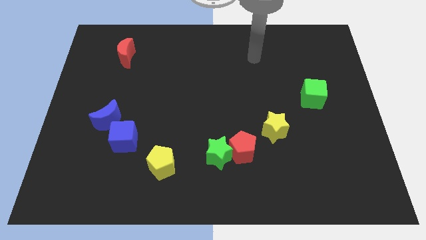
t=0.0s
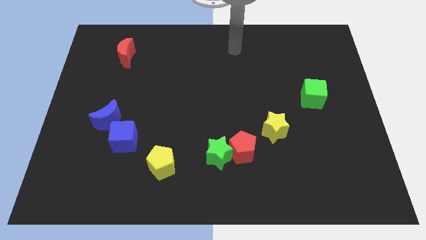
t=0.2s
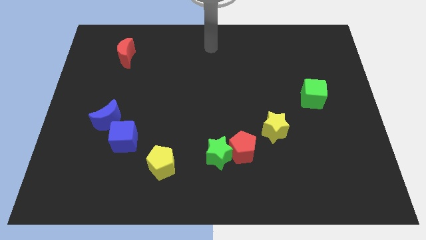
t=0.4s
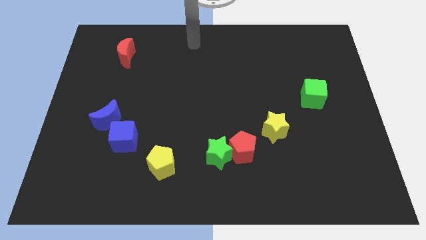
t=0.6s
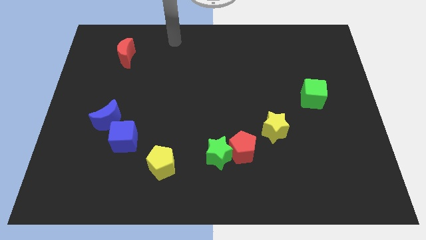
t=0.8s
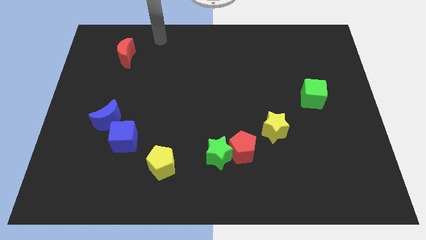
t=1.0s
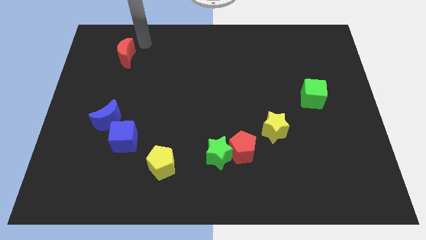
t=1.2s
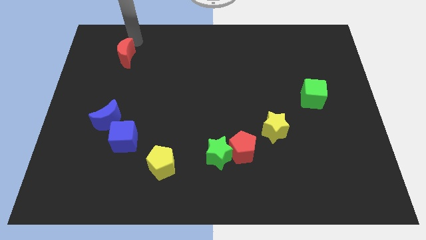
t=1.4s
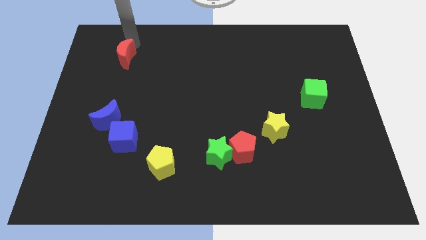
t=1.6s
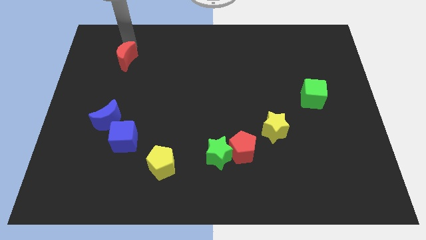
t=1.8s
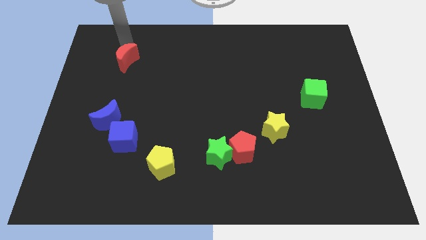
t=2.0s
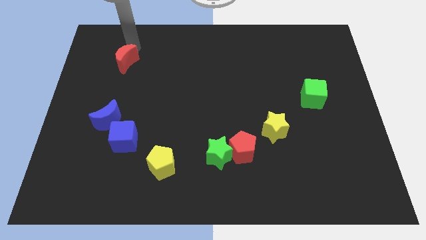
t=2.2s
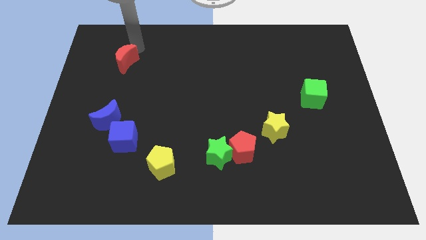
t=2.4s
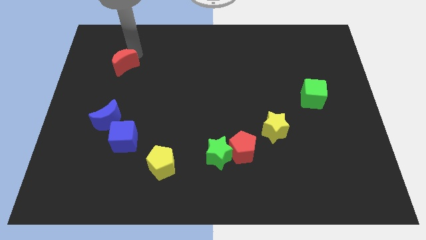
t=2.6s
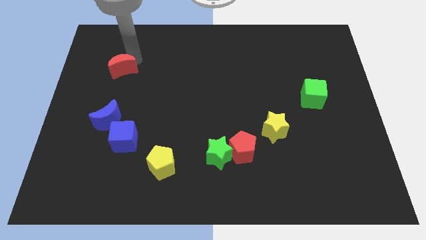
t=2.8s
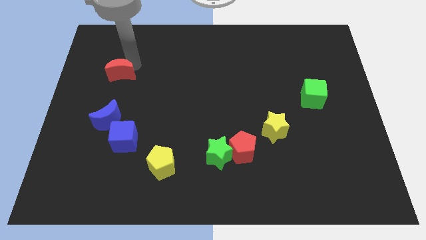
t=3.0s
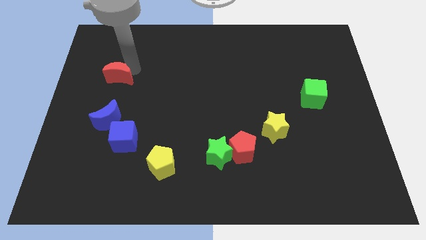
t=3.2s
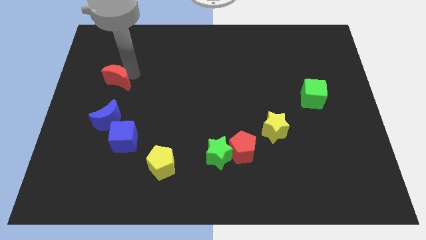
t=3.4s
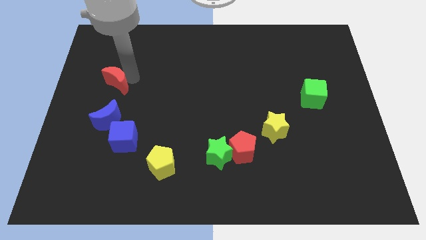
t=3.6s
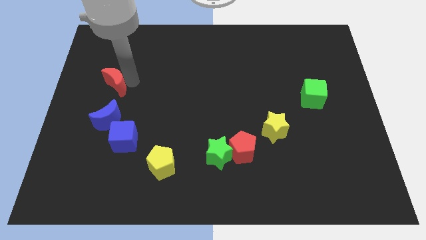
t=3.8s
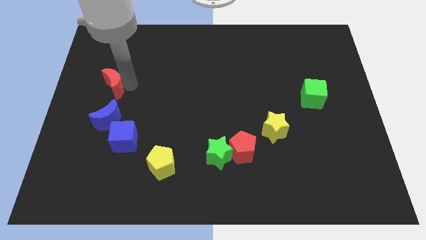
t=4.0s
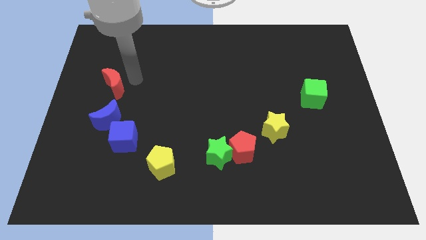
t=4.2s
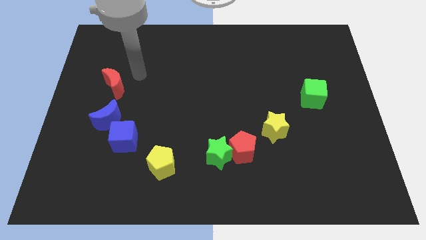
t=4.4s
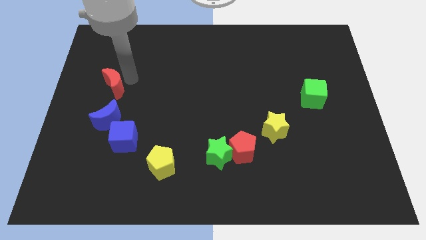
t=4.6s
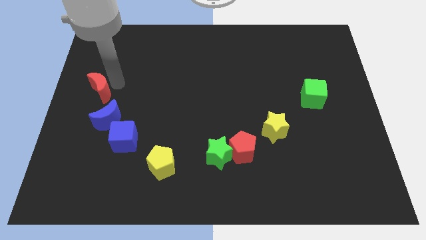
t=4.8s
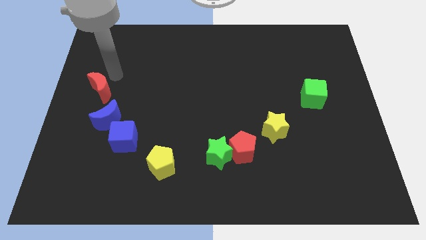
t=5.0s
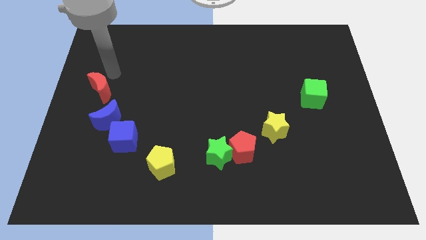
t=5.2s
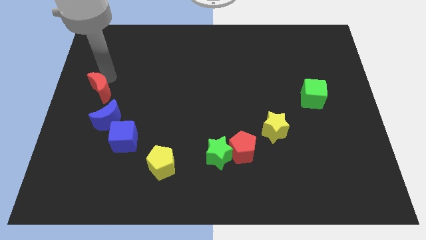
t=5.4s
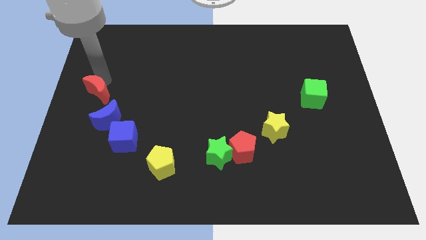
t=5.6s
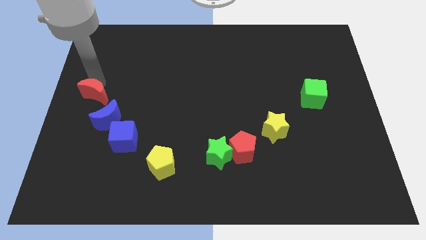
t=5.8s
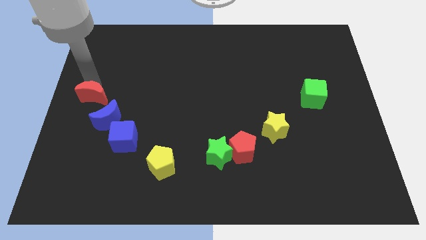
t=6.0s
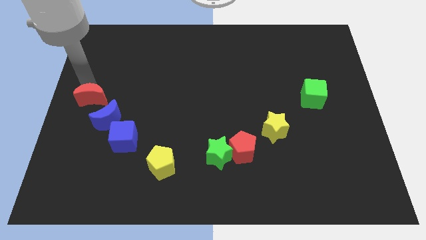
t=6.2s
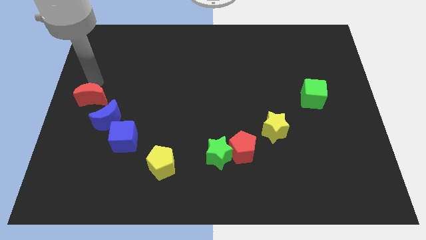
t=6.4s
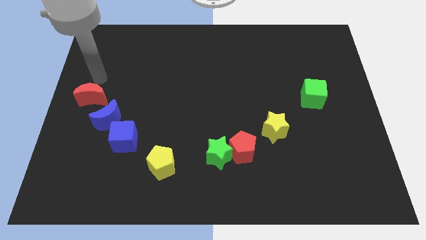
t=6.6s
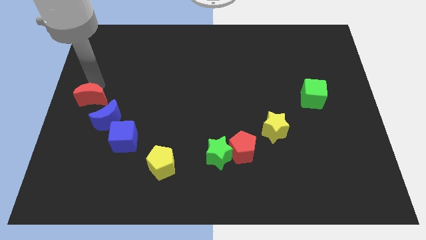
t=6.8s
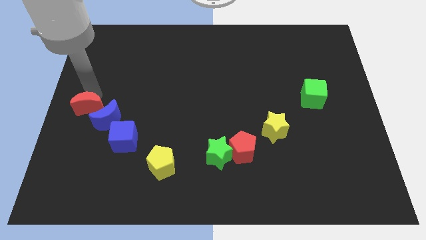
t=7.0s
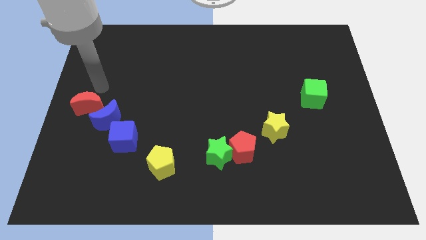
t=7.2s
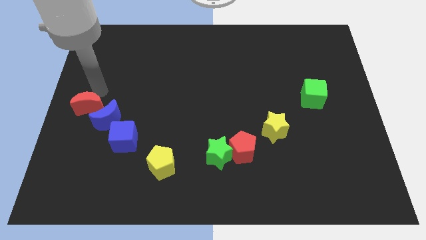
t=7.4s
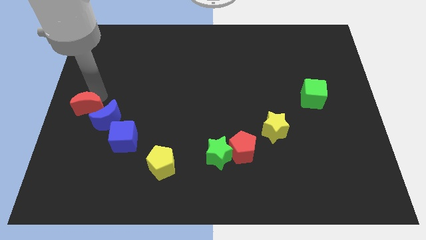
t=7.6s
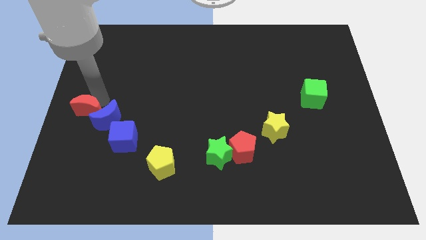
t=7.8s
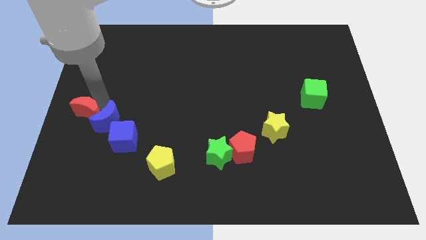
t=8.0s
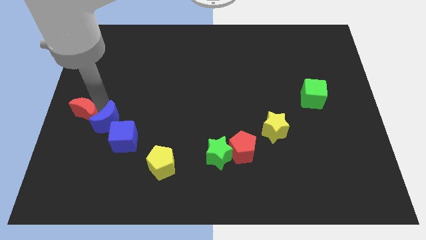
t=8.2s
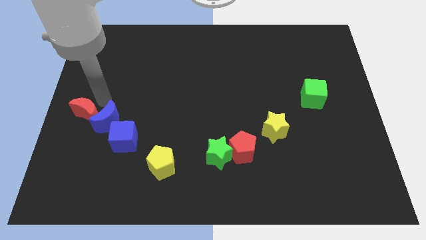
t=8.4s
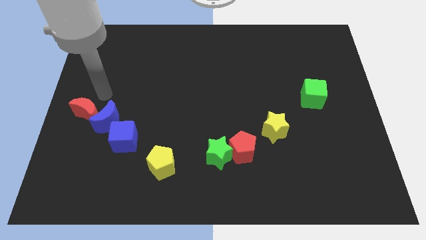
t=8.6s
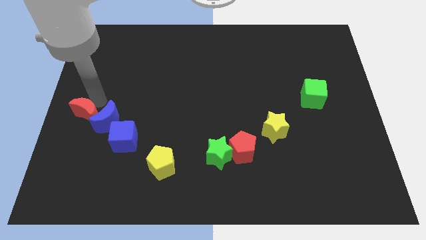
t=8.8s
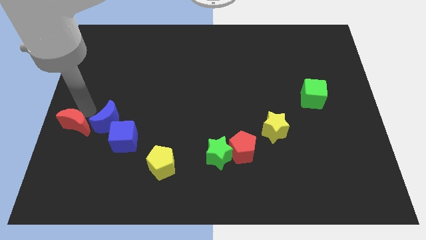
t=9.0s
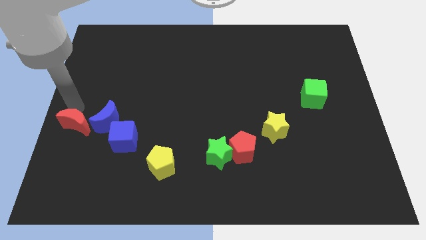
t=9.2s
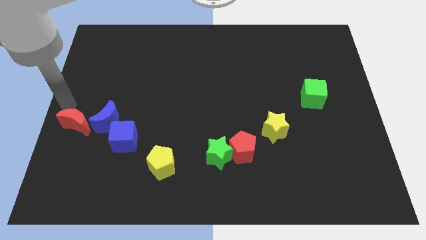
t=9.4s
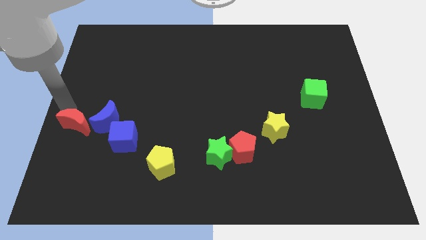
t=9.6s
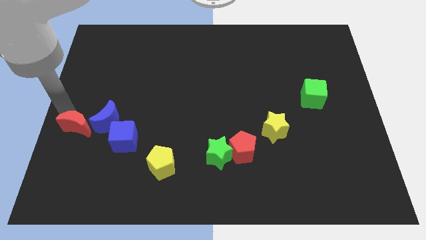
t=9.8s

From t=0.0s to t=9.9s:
push the red moon down

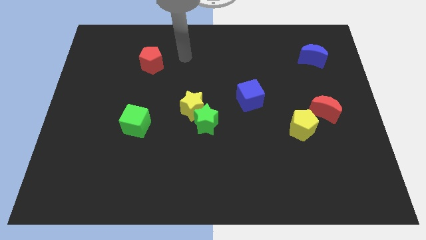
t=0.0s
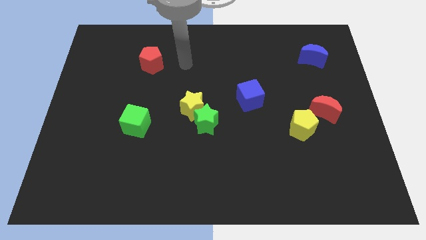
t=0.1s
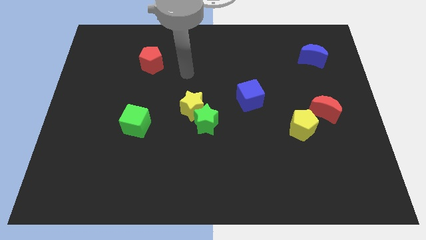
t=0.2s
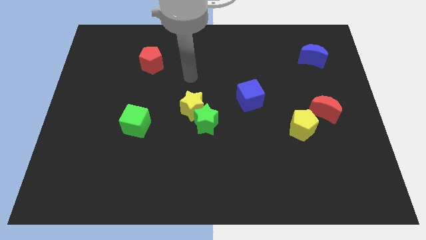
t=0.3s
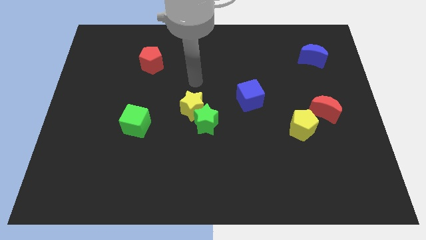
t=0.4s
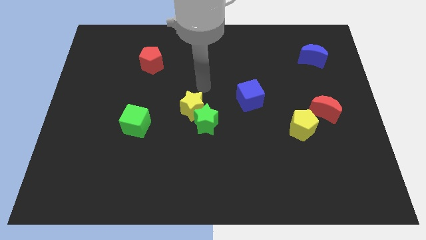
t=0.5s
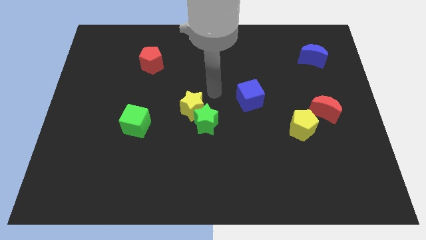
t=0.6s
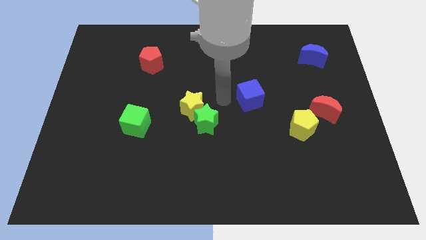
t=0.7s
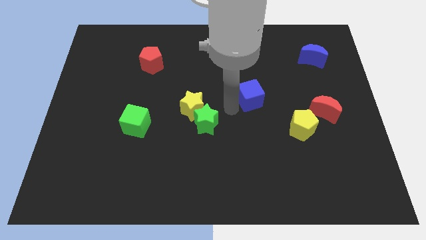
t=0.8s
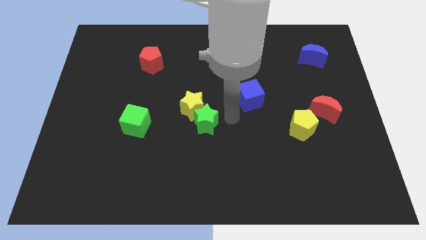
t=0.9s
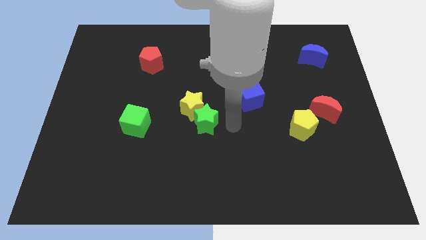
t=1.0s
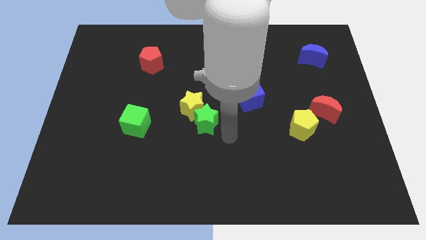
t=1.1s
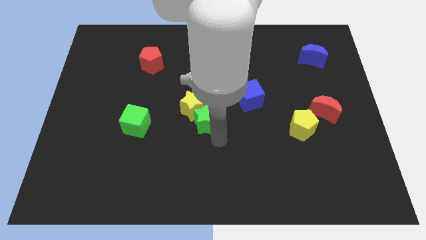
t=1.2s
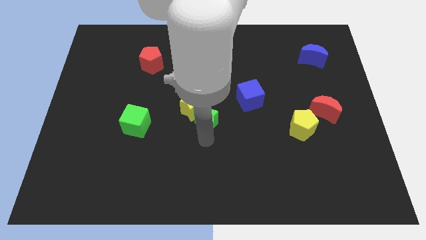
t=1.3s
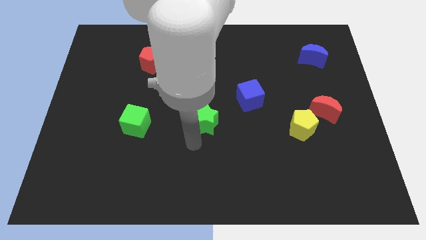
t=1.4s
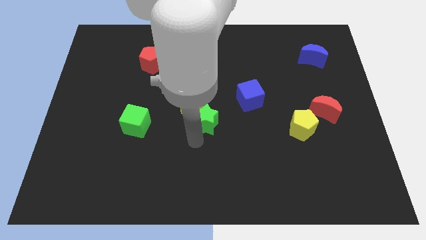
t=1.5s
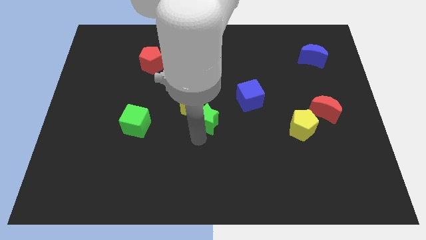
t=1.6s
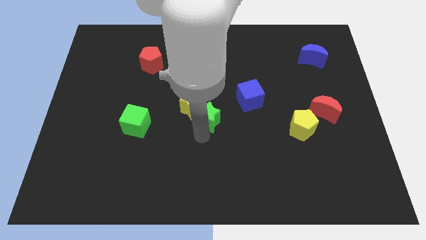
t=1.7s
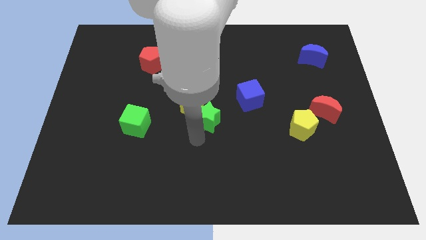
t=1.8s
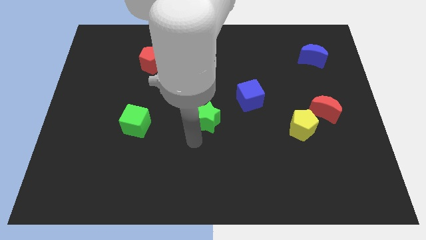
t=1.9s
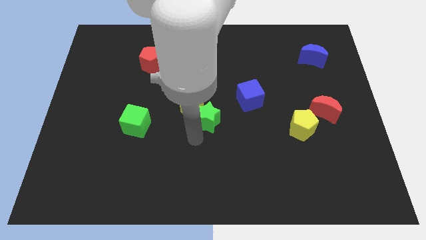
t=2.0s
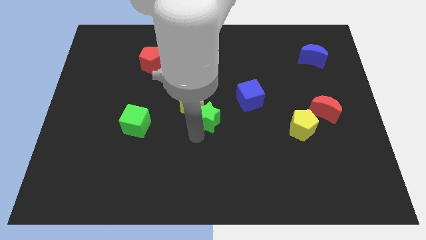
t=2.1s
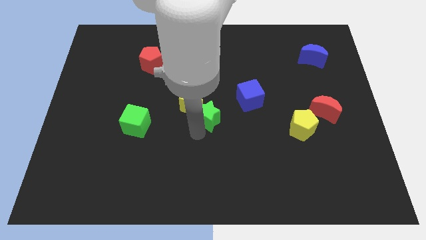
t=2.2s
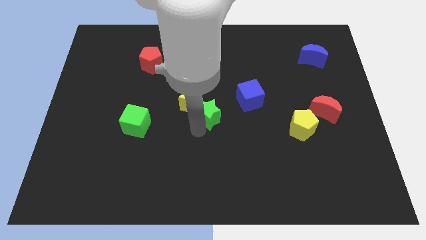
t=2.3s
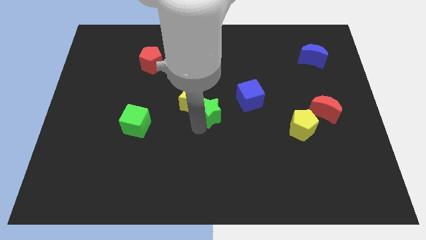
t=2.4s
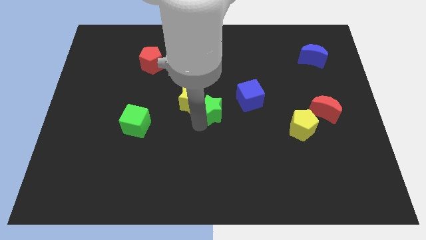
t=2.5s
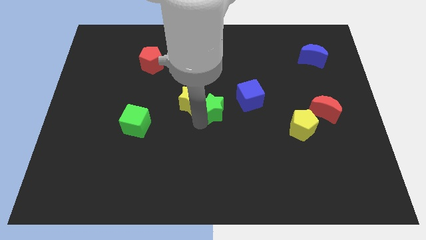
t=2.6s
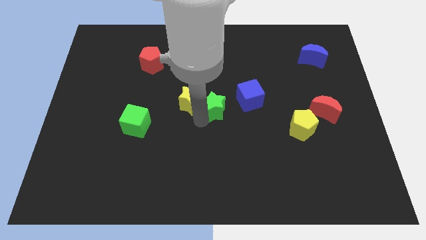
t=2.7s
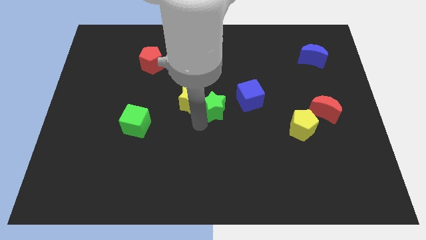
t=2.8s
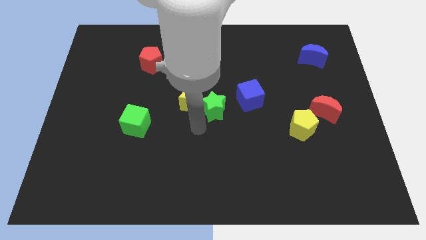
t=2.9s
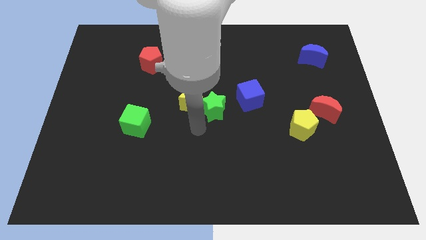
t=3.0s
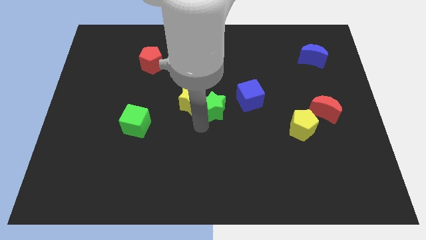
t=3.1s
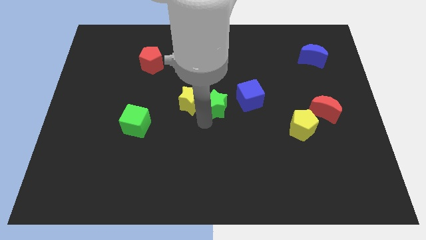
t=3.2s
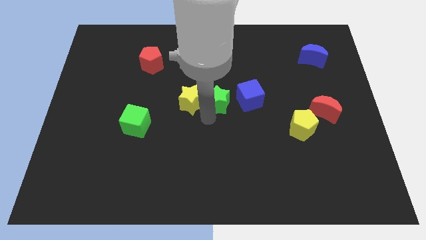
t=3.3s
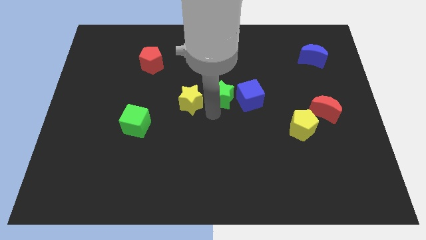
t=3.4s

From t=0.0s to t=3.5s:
move the green star up and then right a bit
